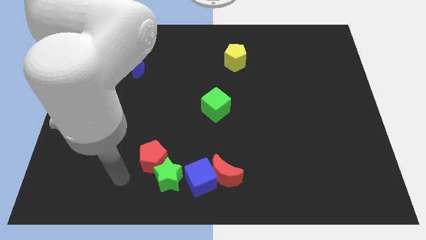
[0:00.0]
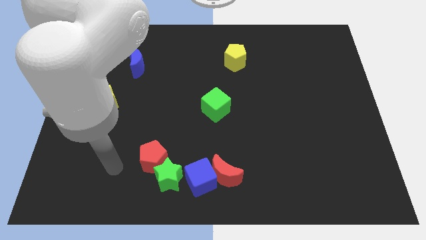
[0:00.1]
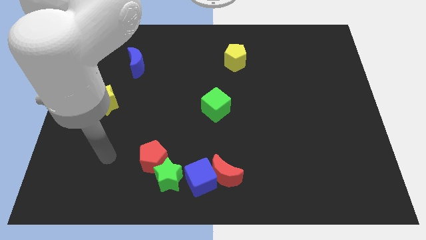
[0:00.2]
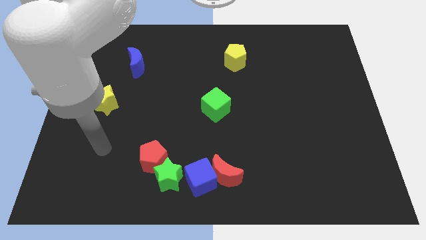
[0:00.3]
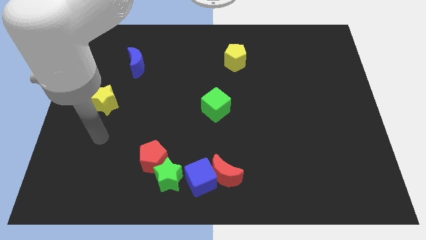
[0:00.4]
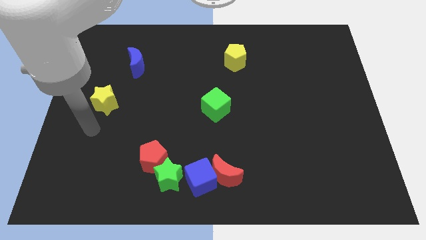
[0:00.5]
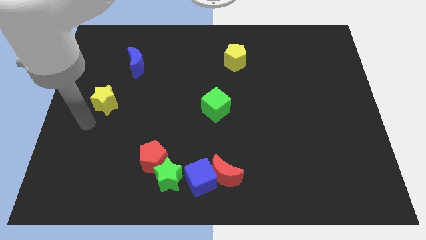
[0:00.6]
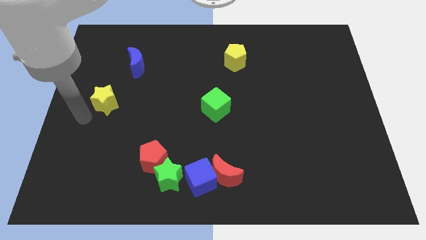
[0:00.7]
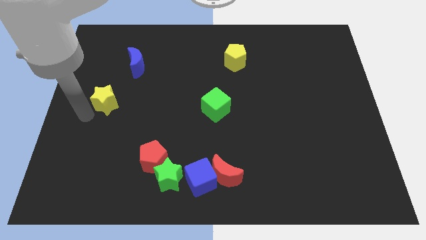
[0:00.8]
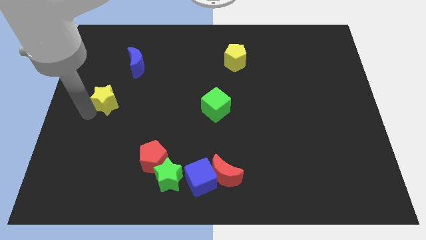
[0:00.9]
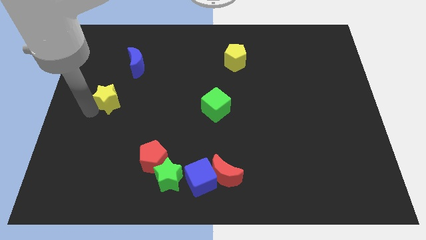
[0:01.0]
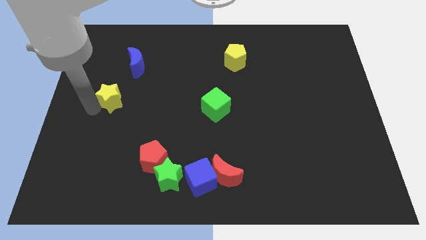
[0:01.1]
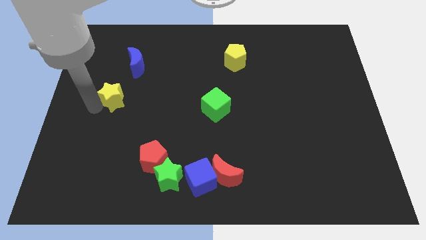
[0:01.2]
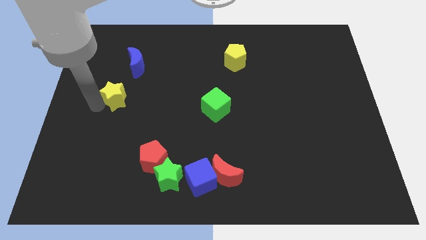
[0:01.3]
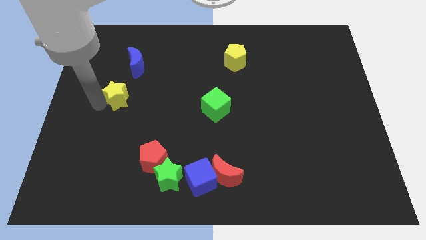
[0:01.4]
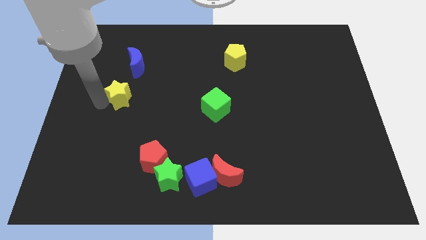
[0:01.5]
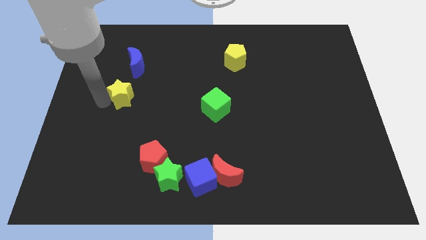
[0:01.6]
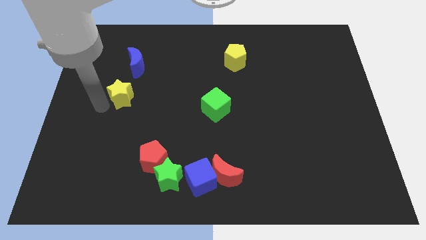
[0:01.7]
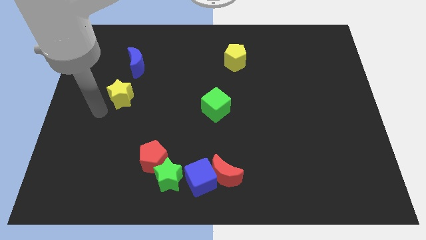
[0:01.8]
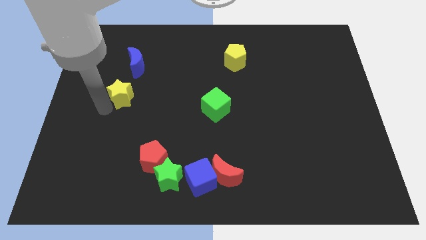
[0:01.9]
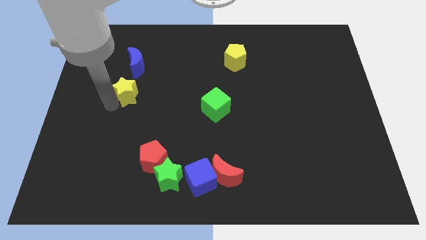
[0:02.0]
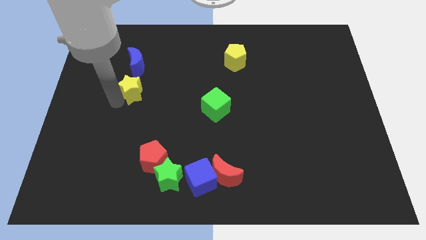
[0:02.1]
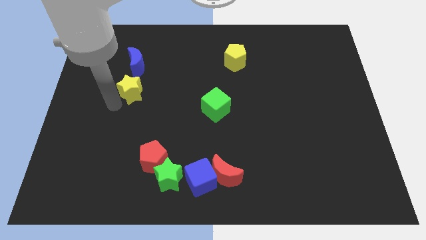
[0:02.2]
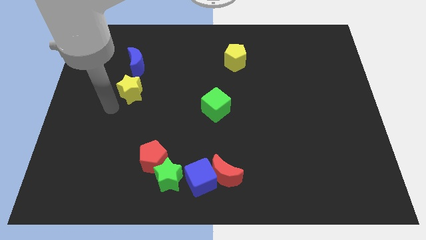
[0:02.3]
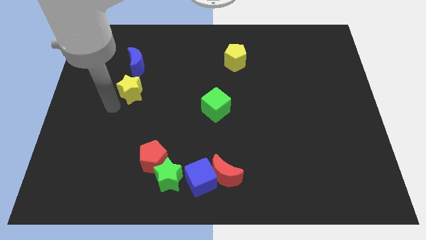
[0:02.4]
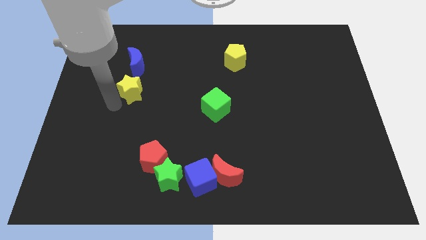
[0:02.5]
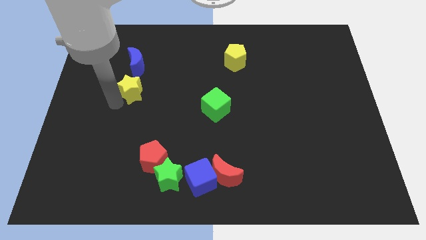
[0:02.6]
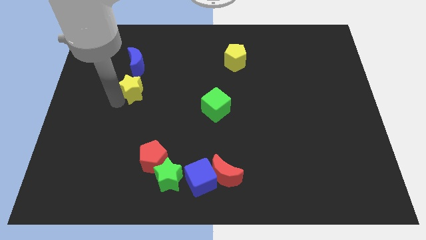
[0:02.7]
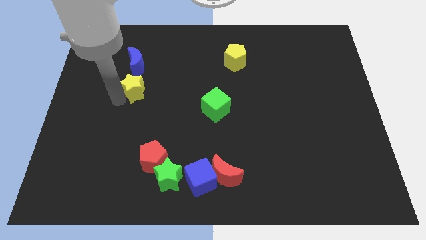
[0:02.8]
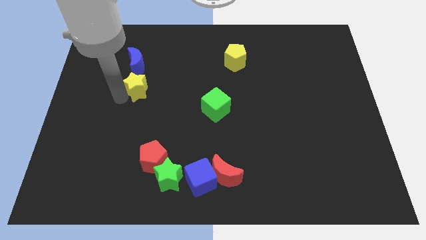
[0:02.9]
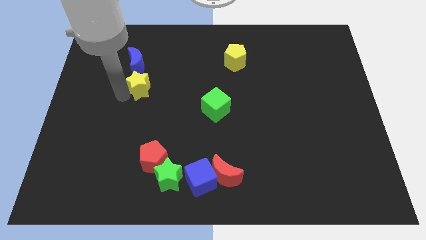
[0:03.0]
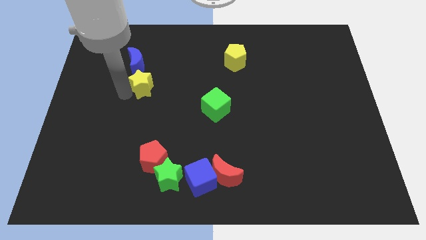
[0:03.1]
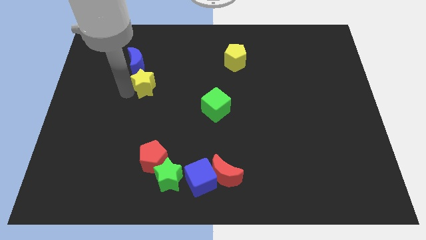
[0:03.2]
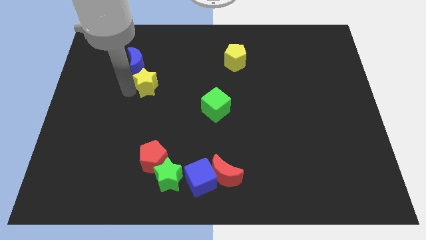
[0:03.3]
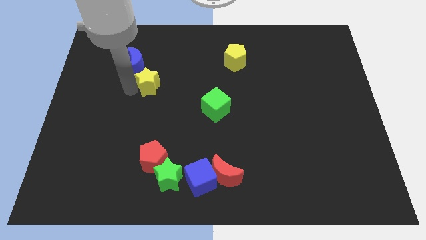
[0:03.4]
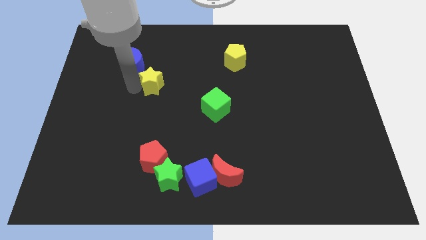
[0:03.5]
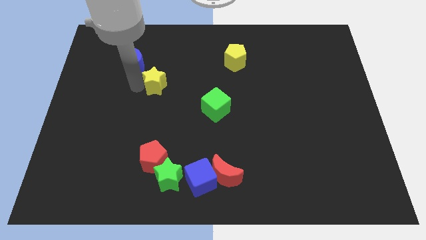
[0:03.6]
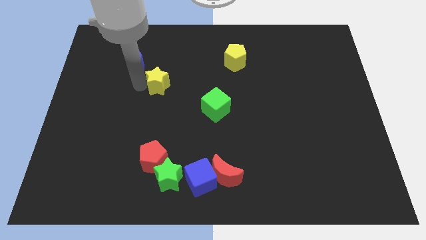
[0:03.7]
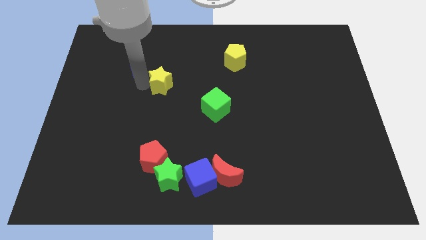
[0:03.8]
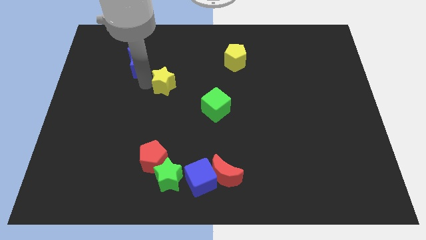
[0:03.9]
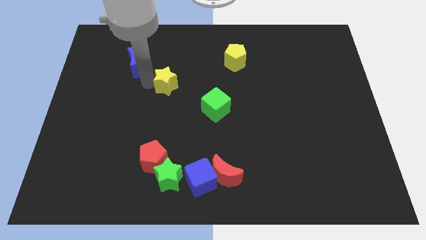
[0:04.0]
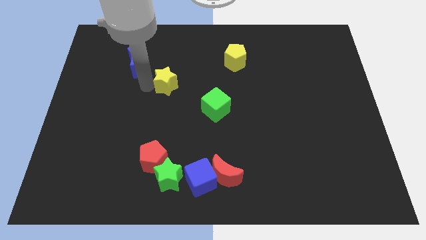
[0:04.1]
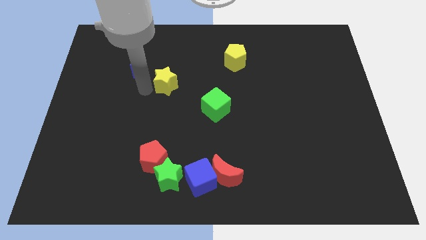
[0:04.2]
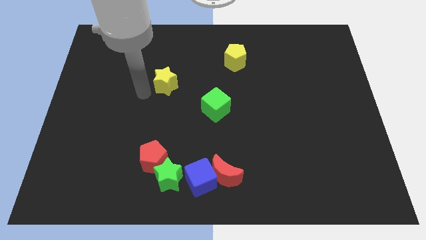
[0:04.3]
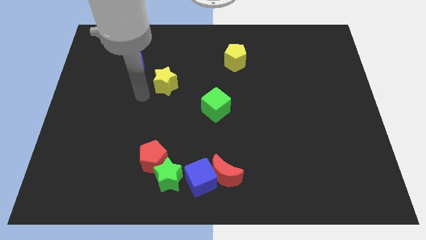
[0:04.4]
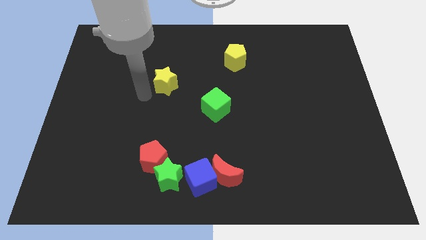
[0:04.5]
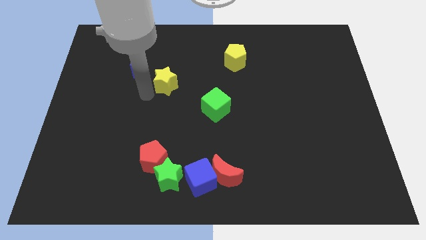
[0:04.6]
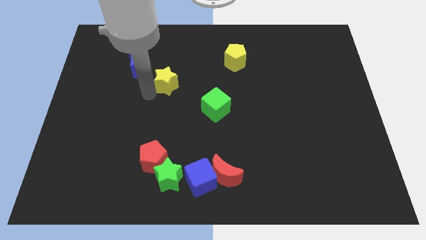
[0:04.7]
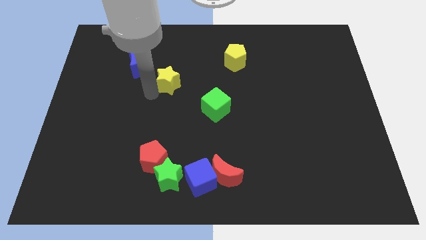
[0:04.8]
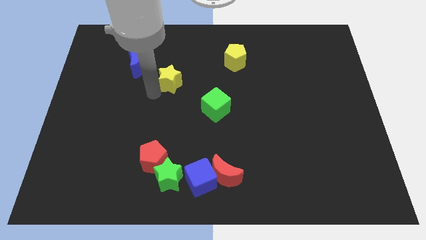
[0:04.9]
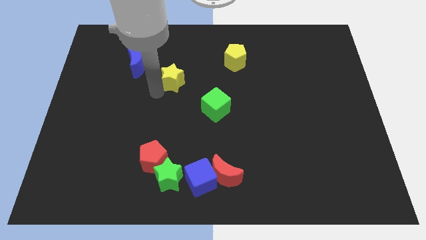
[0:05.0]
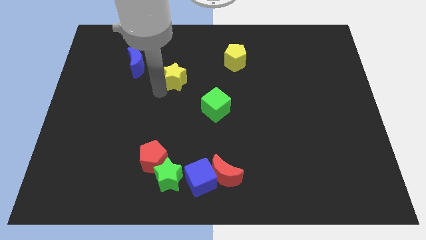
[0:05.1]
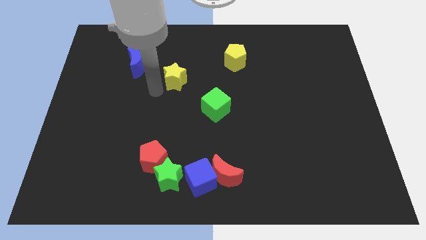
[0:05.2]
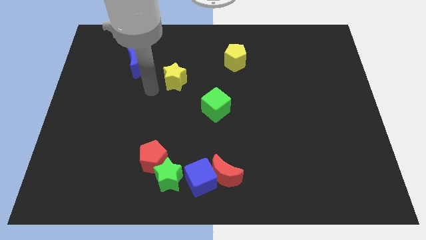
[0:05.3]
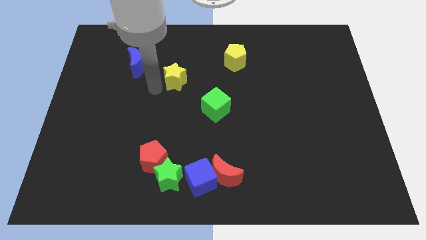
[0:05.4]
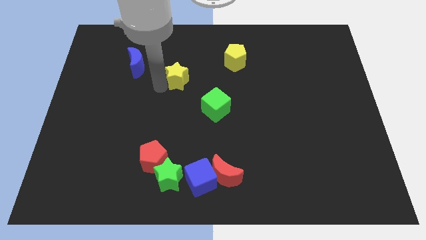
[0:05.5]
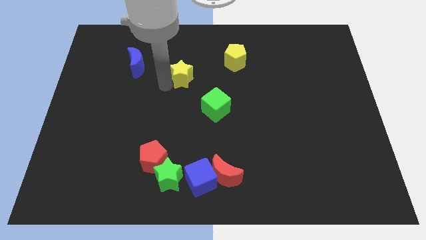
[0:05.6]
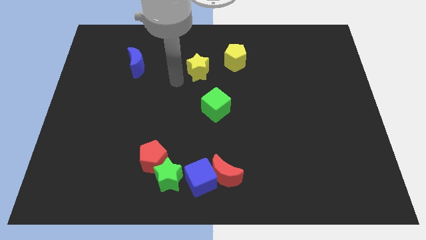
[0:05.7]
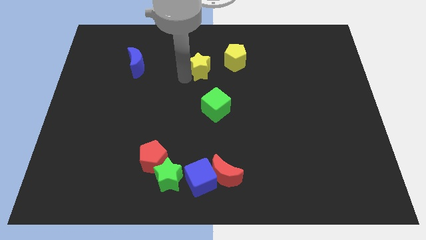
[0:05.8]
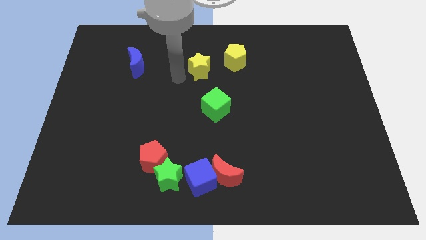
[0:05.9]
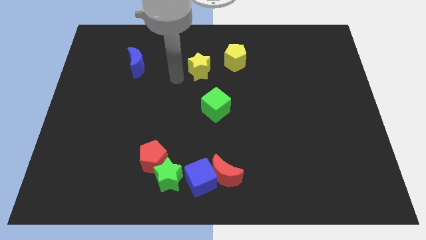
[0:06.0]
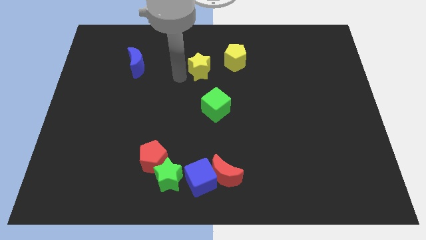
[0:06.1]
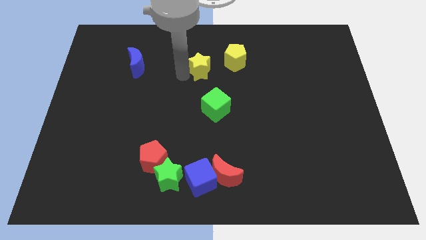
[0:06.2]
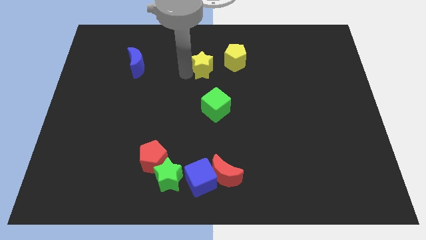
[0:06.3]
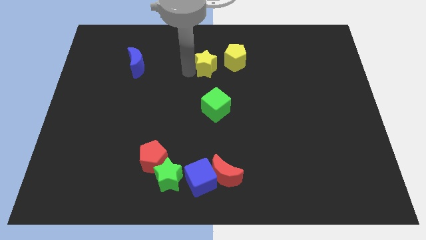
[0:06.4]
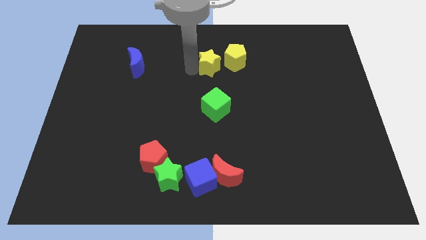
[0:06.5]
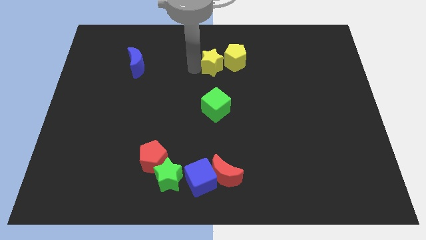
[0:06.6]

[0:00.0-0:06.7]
put the yellow star towards the yellow pentagon

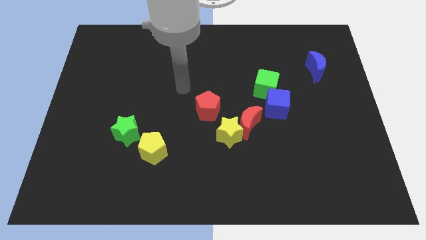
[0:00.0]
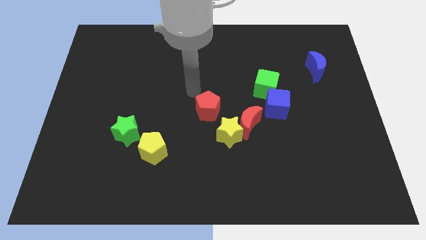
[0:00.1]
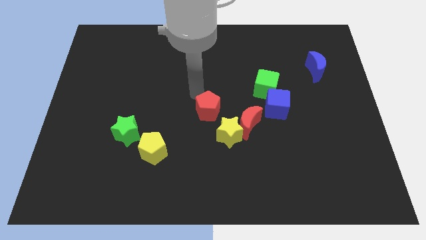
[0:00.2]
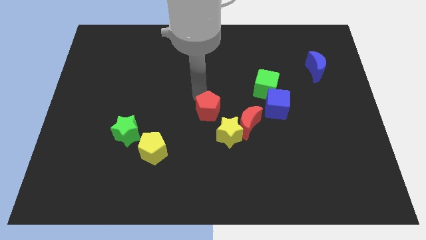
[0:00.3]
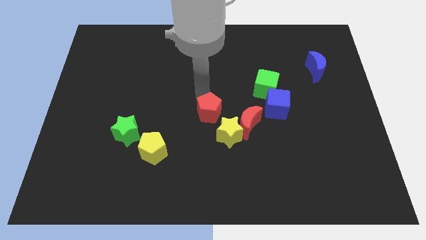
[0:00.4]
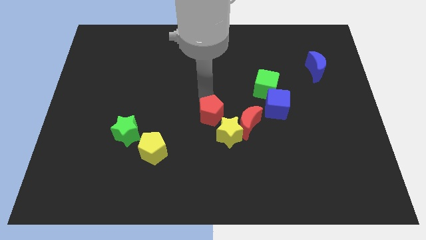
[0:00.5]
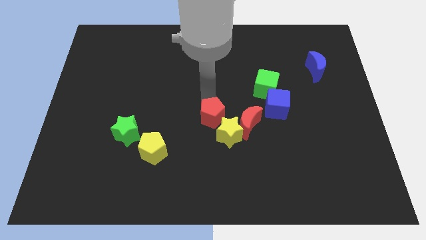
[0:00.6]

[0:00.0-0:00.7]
slide the red pentagon close to the yellow star
